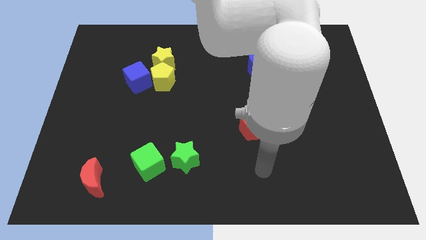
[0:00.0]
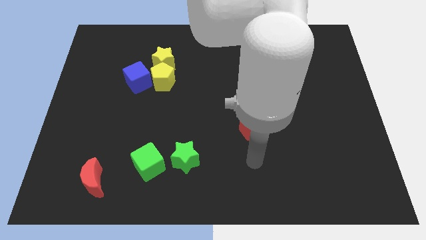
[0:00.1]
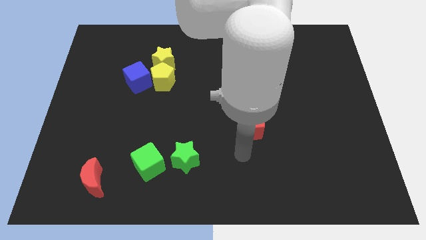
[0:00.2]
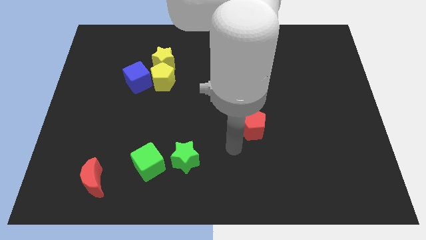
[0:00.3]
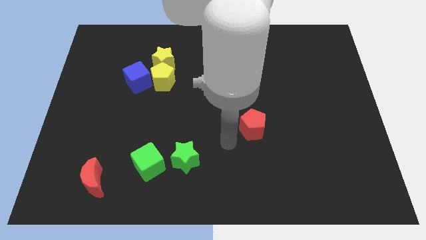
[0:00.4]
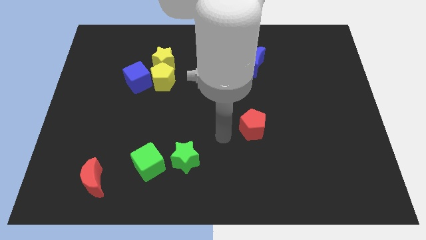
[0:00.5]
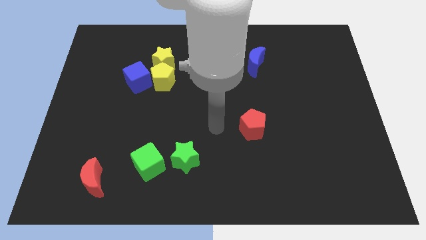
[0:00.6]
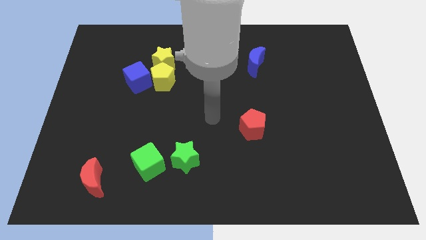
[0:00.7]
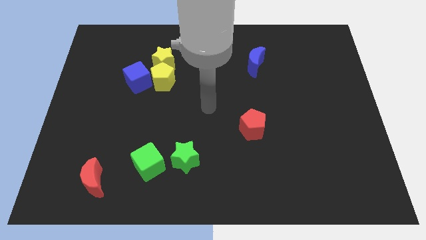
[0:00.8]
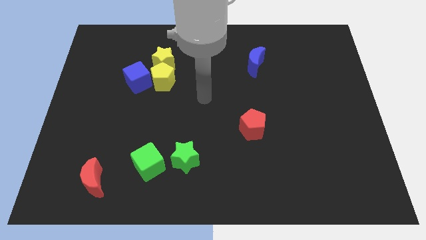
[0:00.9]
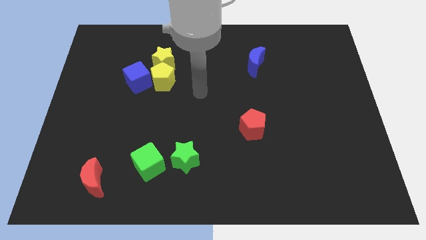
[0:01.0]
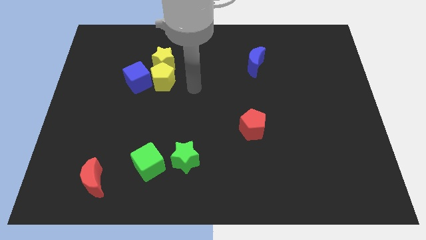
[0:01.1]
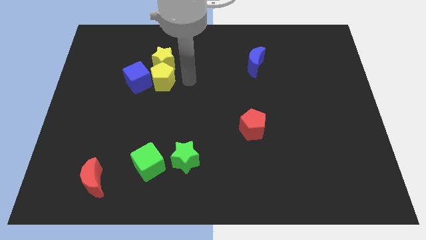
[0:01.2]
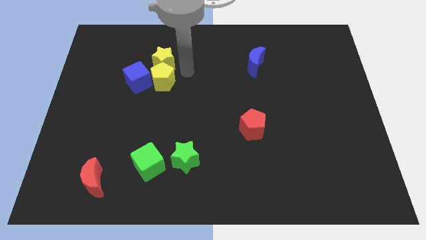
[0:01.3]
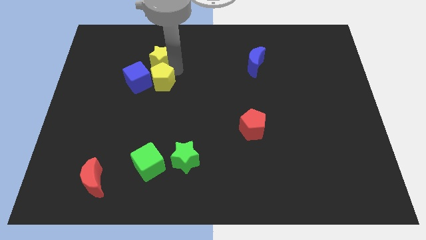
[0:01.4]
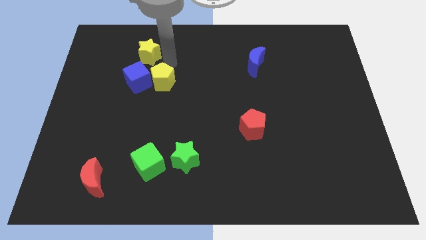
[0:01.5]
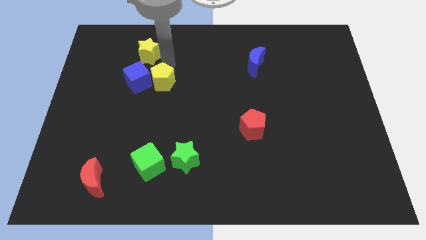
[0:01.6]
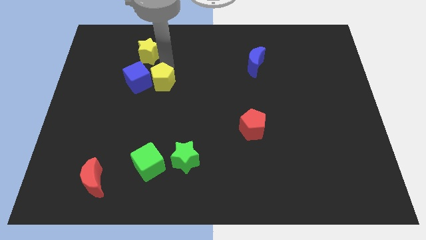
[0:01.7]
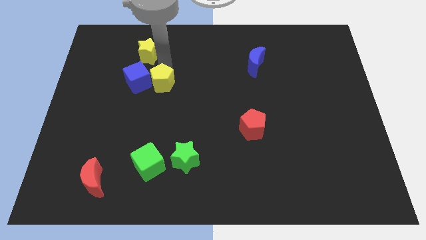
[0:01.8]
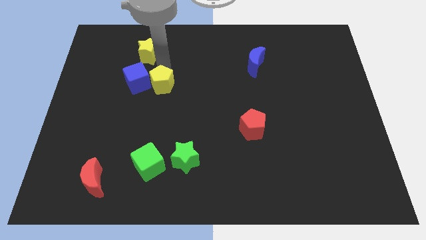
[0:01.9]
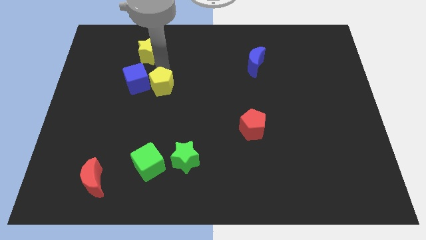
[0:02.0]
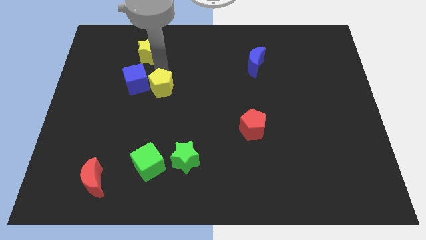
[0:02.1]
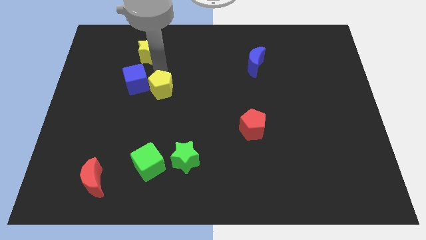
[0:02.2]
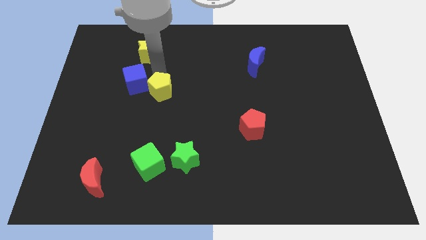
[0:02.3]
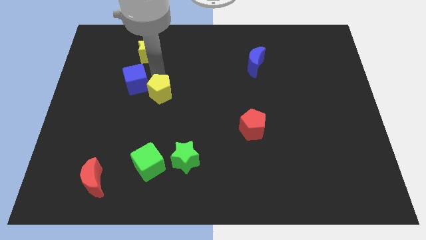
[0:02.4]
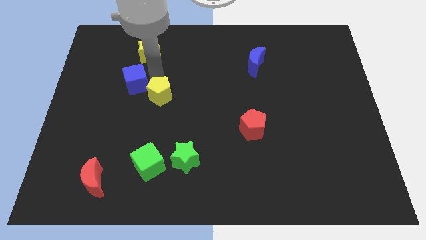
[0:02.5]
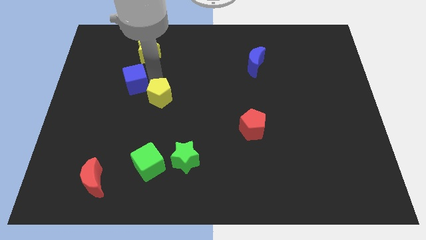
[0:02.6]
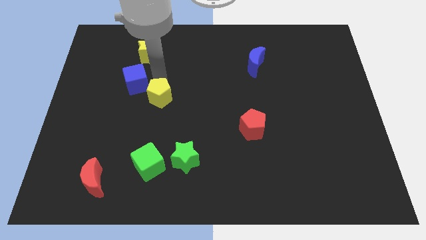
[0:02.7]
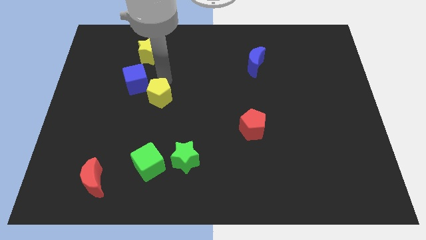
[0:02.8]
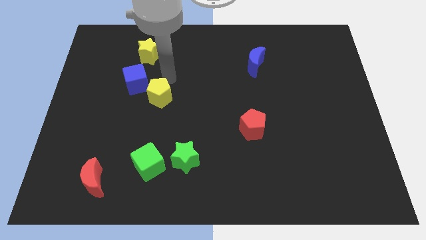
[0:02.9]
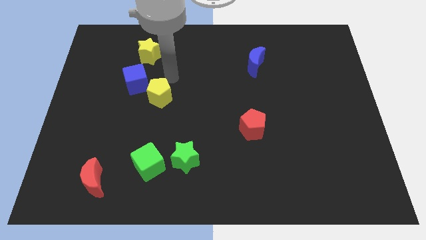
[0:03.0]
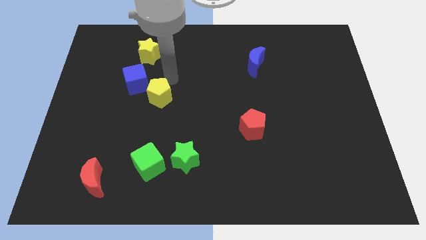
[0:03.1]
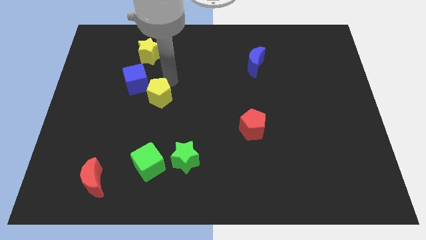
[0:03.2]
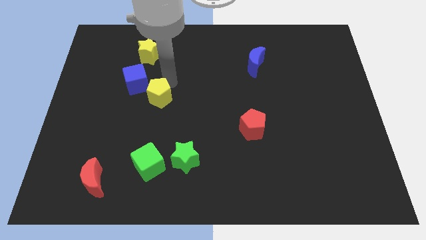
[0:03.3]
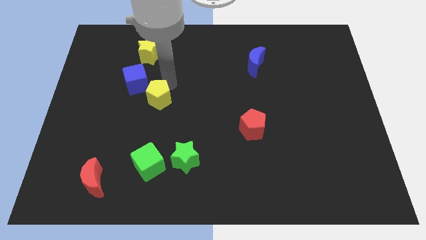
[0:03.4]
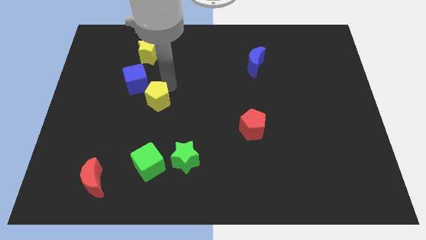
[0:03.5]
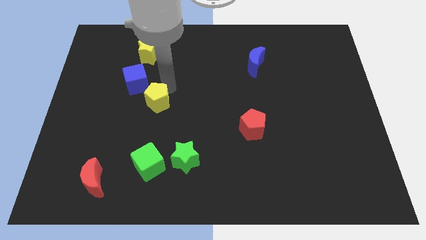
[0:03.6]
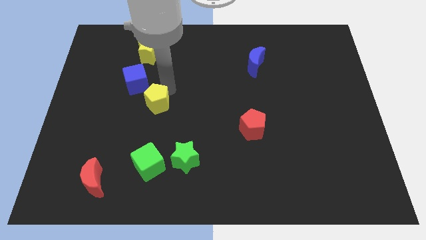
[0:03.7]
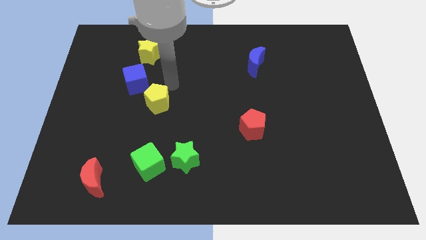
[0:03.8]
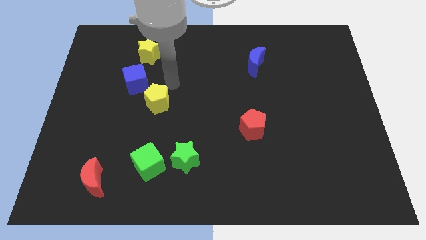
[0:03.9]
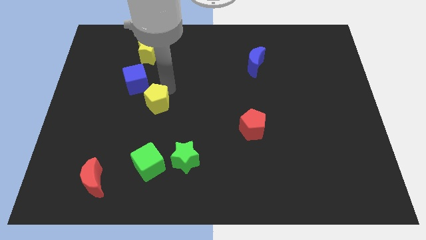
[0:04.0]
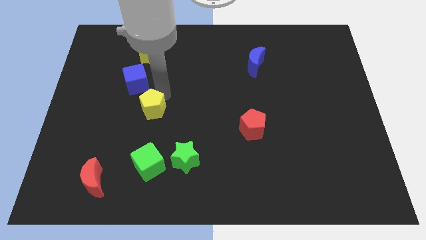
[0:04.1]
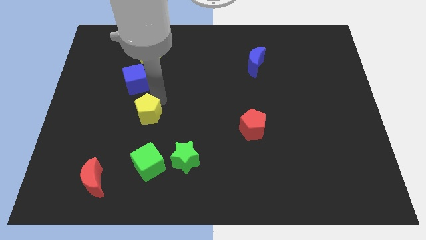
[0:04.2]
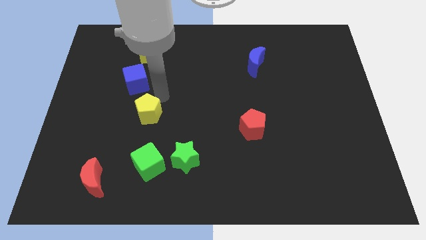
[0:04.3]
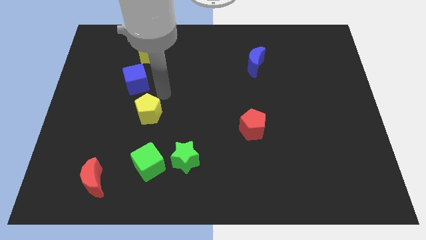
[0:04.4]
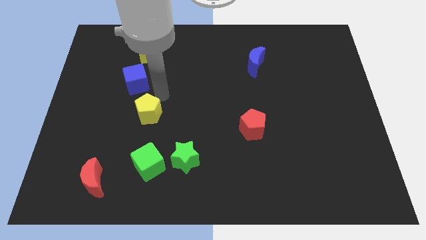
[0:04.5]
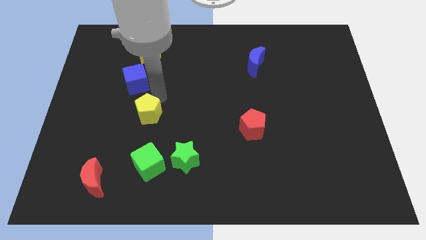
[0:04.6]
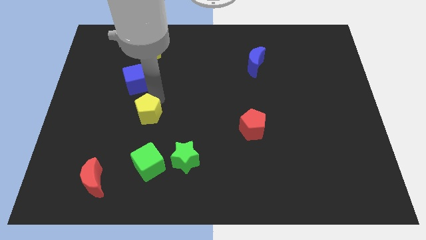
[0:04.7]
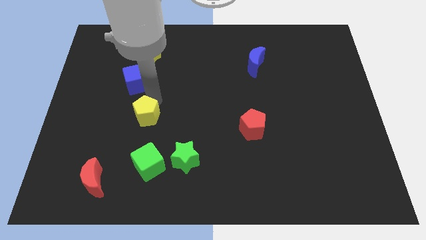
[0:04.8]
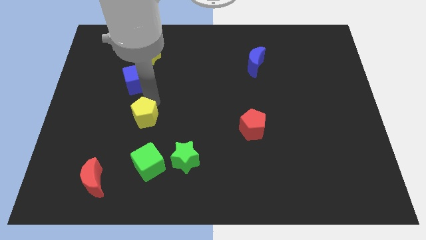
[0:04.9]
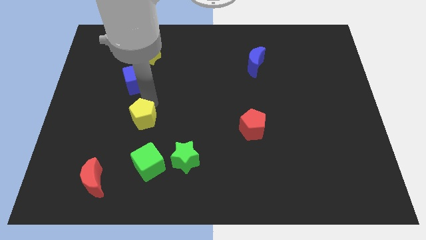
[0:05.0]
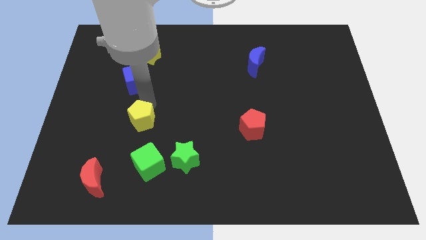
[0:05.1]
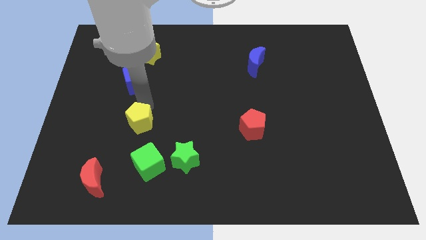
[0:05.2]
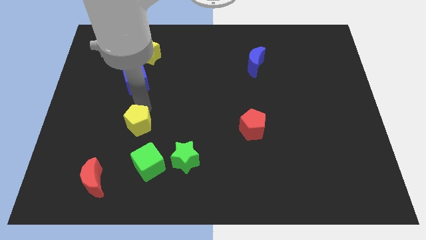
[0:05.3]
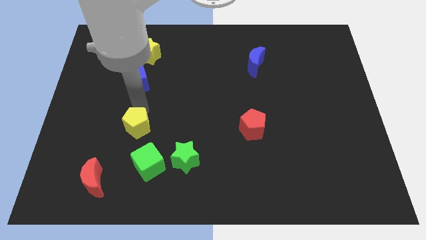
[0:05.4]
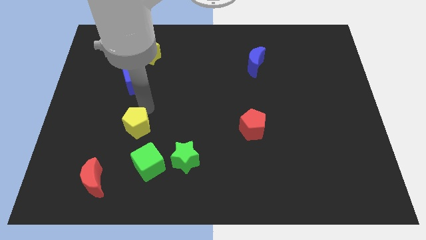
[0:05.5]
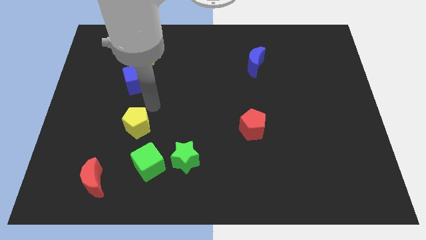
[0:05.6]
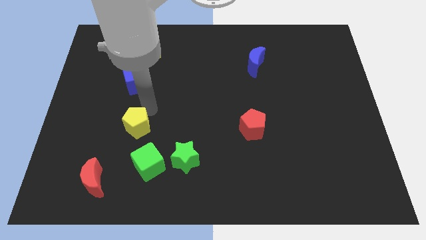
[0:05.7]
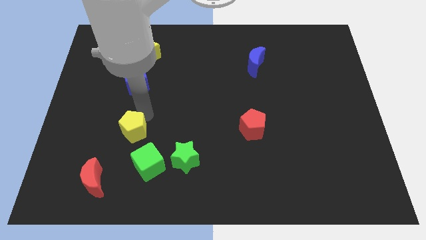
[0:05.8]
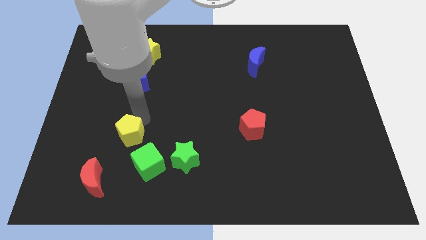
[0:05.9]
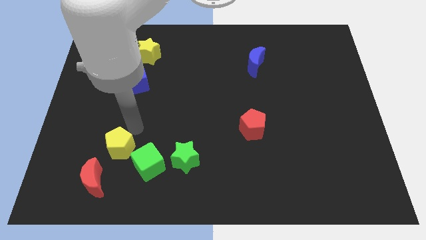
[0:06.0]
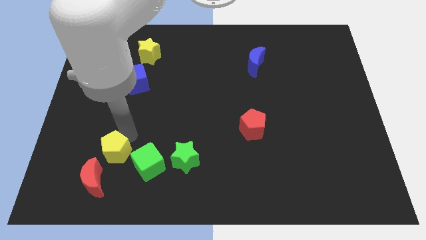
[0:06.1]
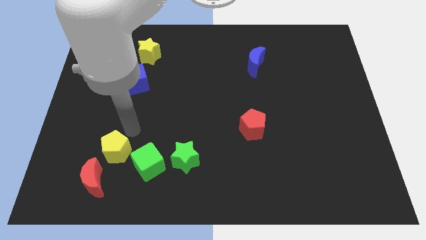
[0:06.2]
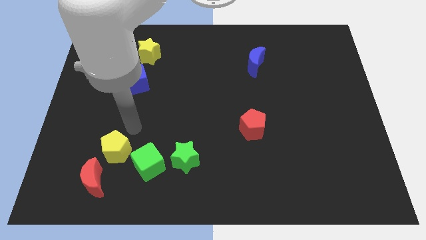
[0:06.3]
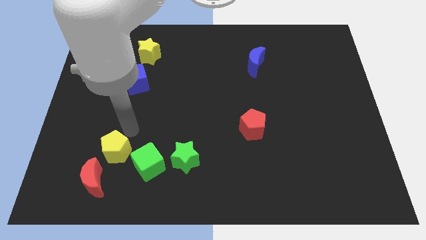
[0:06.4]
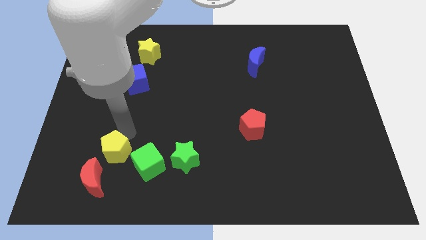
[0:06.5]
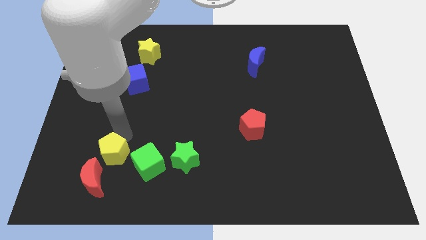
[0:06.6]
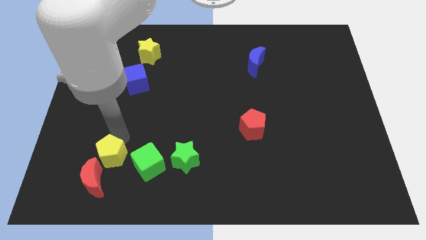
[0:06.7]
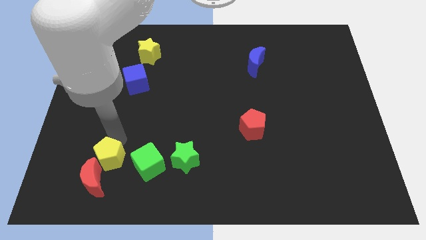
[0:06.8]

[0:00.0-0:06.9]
move the yellow pentagon to the red moon
